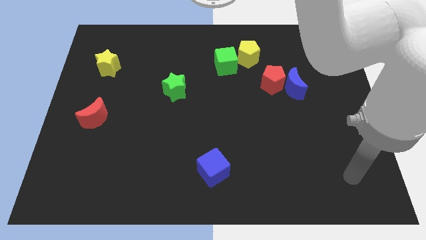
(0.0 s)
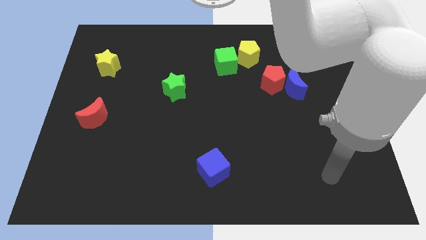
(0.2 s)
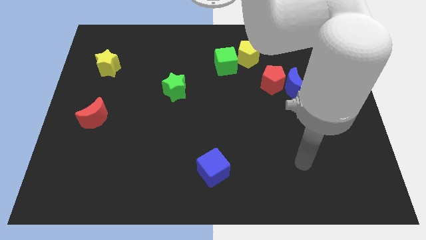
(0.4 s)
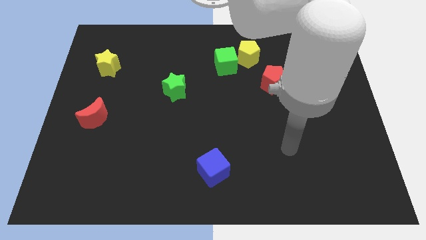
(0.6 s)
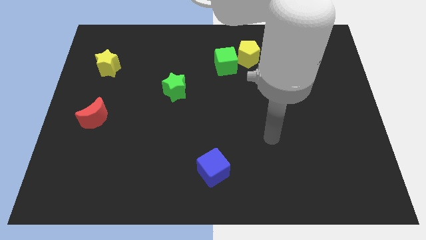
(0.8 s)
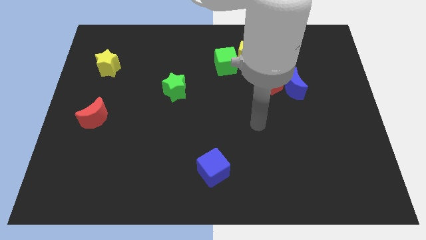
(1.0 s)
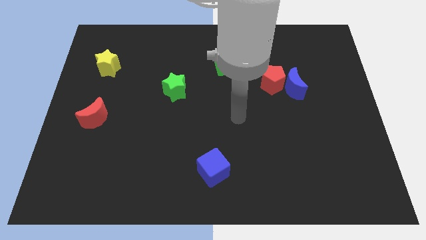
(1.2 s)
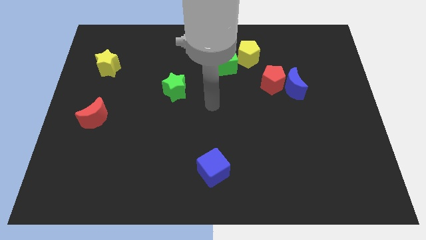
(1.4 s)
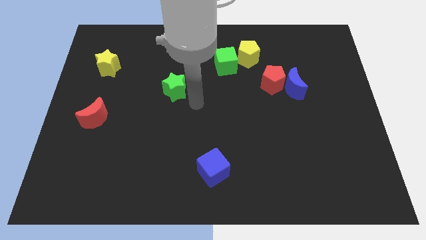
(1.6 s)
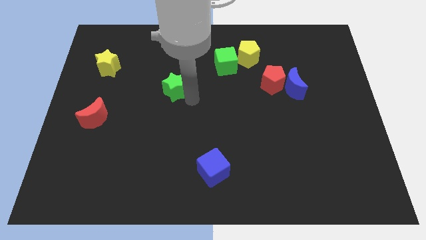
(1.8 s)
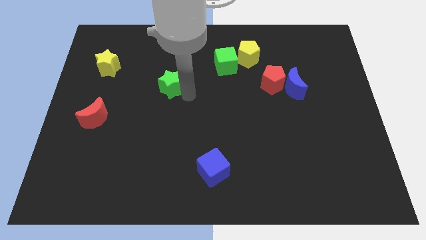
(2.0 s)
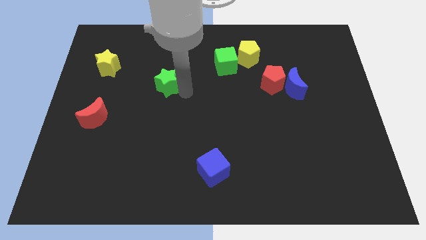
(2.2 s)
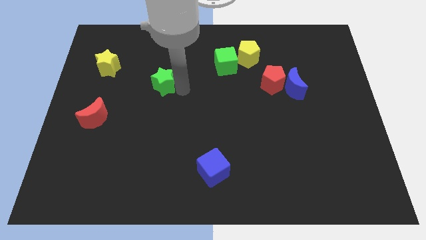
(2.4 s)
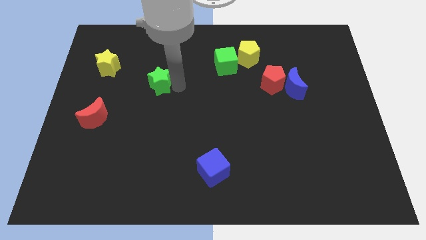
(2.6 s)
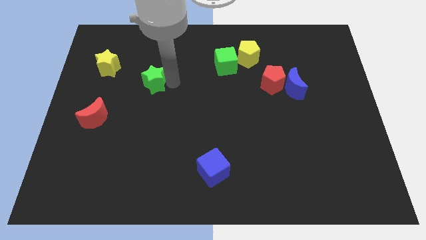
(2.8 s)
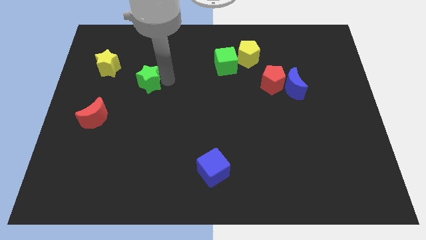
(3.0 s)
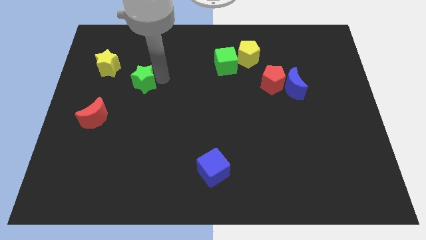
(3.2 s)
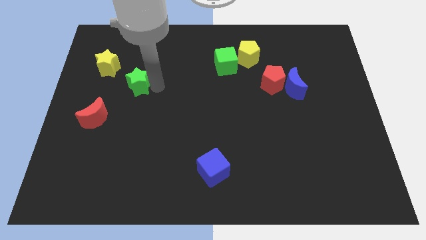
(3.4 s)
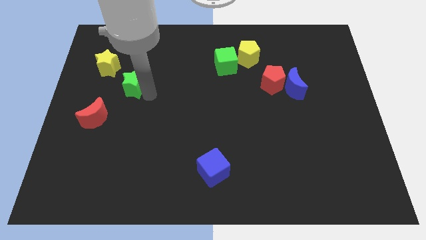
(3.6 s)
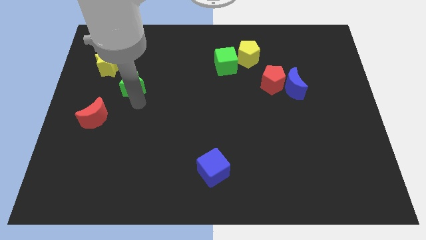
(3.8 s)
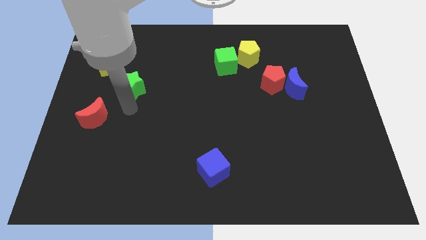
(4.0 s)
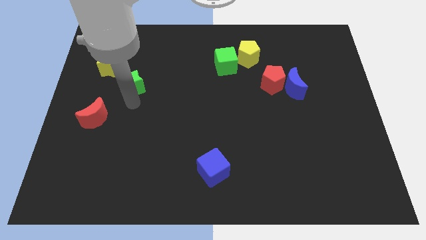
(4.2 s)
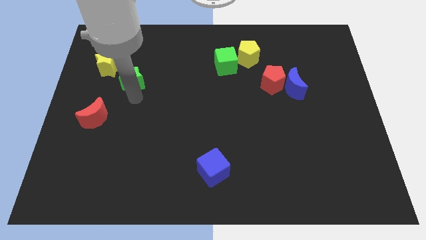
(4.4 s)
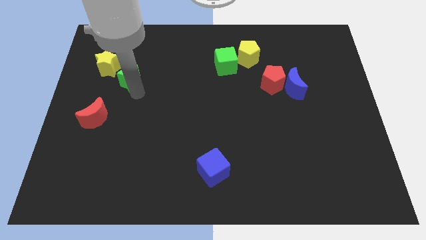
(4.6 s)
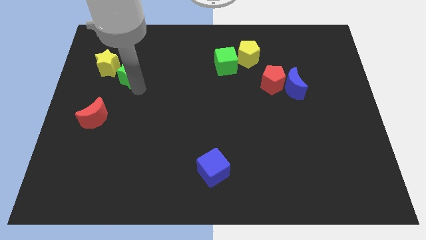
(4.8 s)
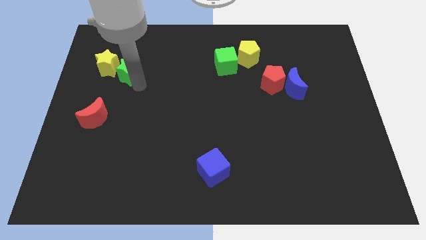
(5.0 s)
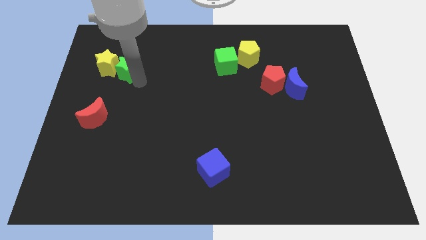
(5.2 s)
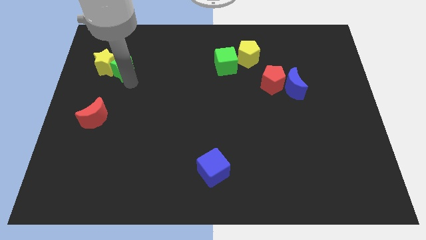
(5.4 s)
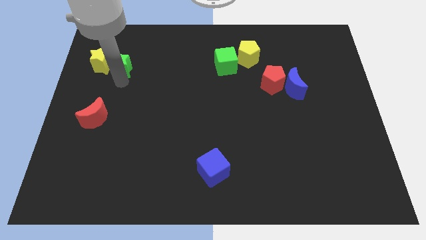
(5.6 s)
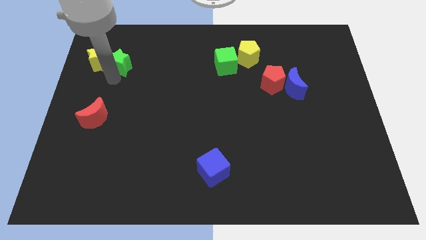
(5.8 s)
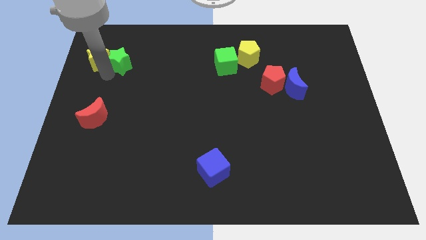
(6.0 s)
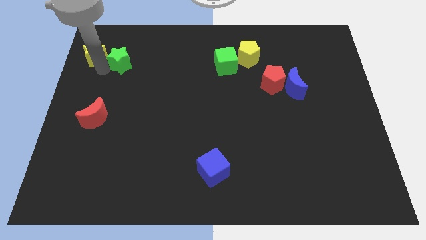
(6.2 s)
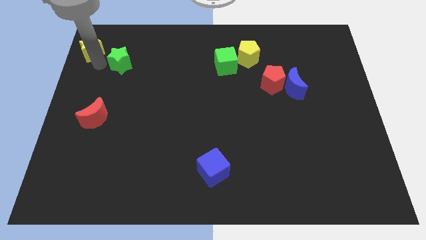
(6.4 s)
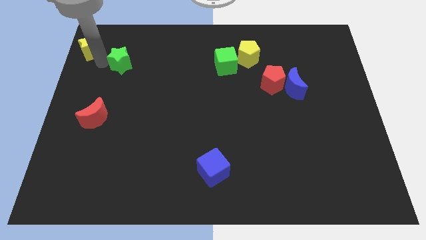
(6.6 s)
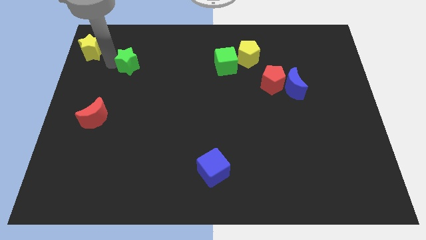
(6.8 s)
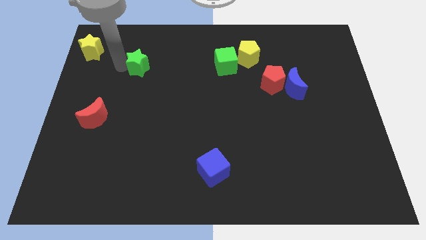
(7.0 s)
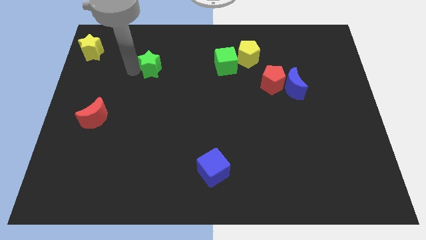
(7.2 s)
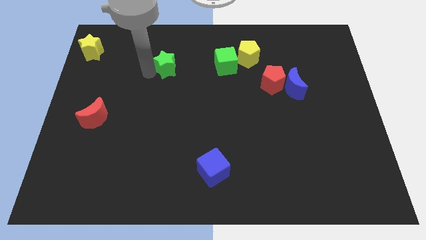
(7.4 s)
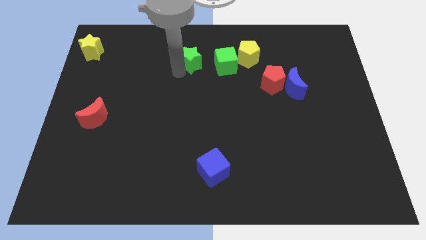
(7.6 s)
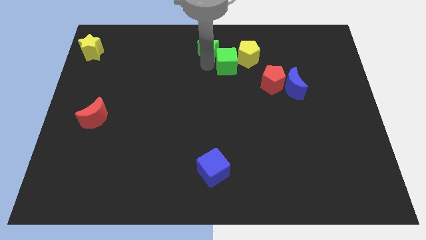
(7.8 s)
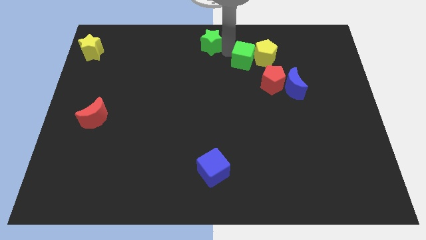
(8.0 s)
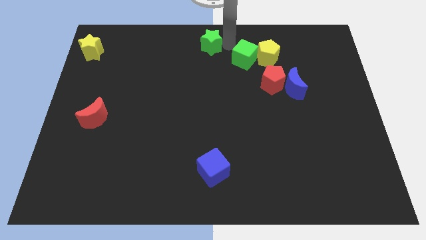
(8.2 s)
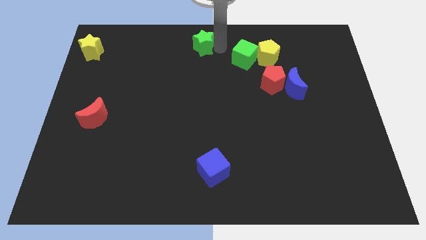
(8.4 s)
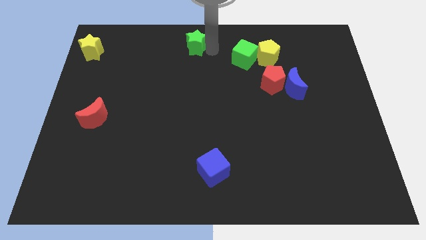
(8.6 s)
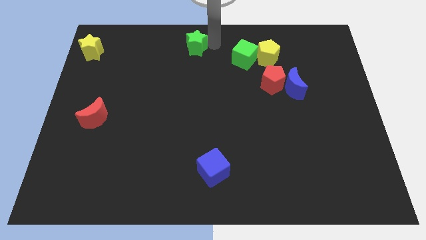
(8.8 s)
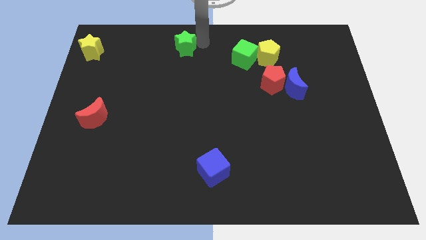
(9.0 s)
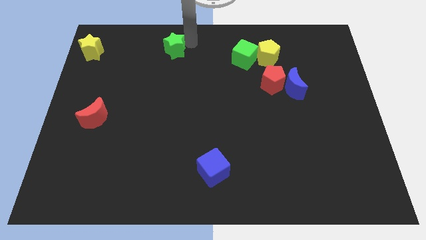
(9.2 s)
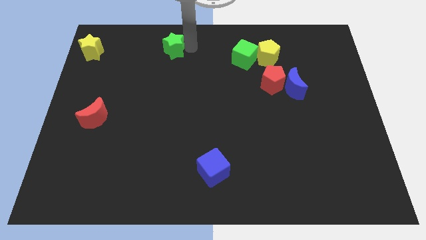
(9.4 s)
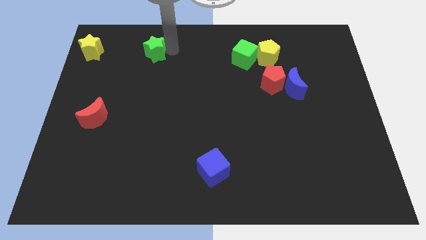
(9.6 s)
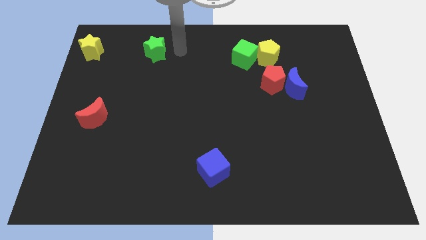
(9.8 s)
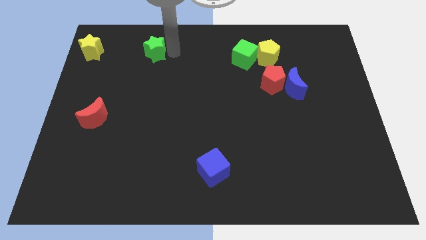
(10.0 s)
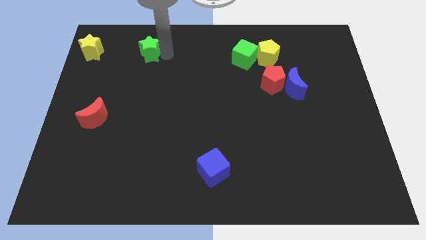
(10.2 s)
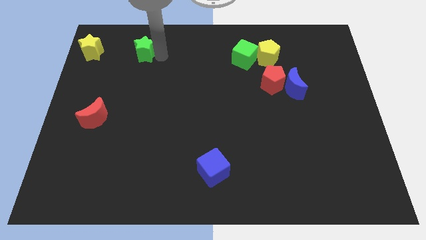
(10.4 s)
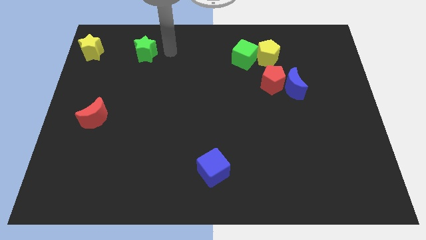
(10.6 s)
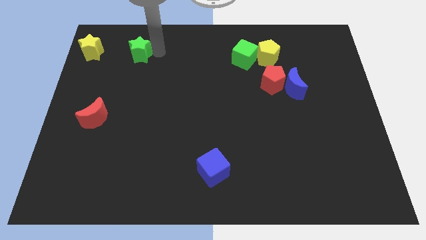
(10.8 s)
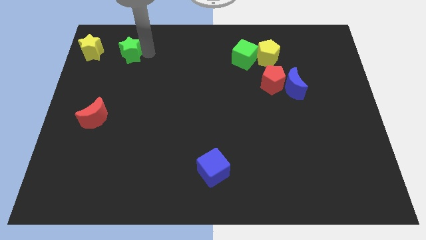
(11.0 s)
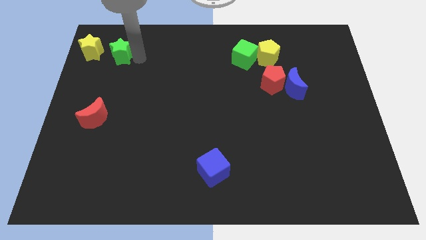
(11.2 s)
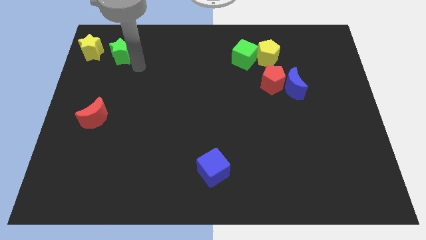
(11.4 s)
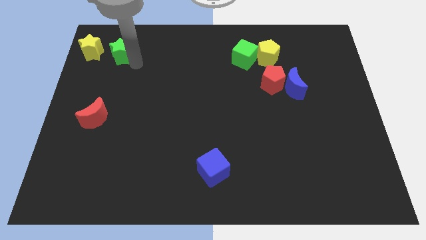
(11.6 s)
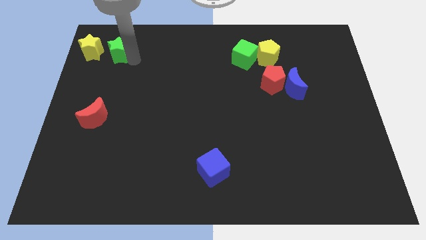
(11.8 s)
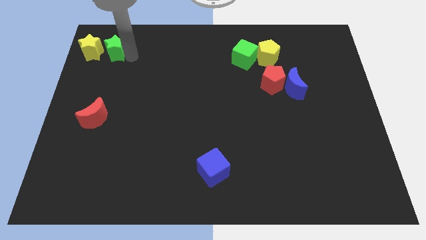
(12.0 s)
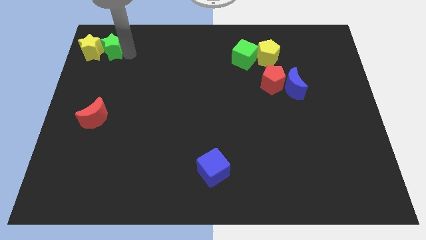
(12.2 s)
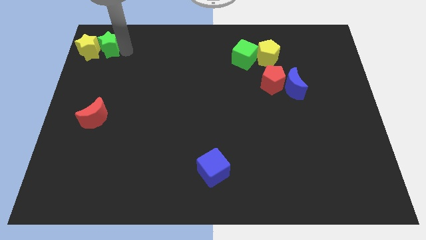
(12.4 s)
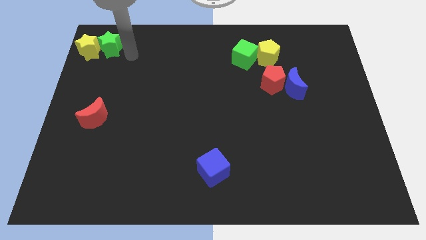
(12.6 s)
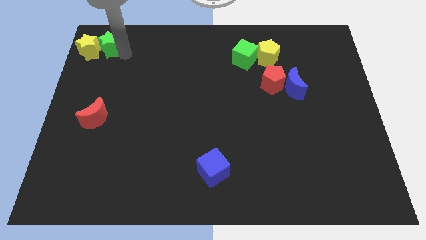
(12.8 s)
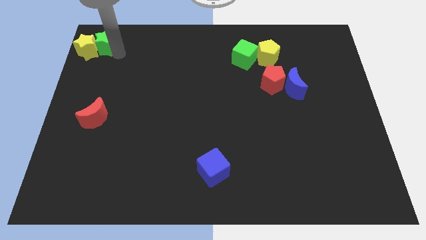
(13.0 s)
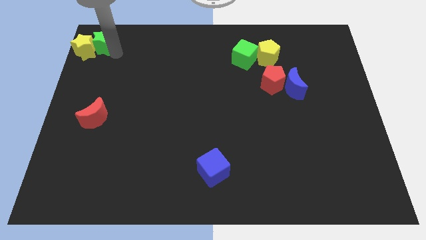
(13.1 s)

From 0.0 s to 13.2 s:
push the green star to the upper left corner

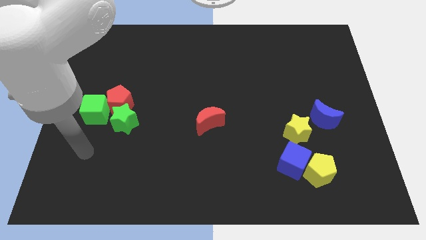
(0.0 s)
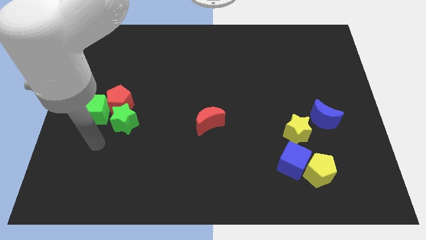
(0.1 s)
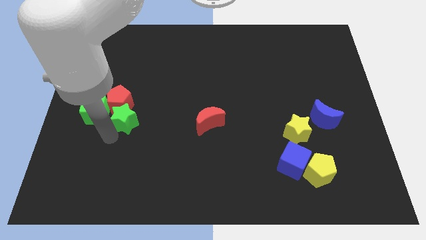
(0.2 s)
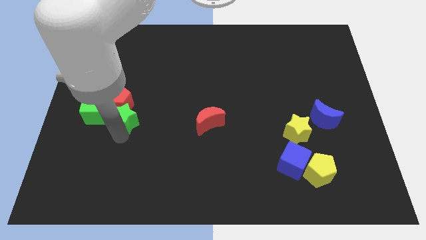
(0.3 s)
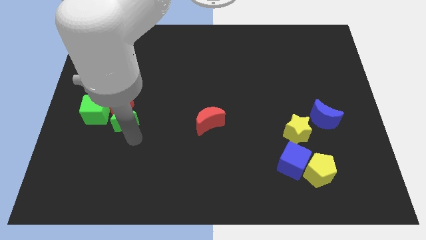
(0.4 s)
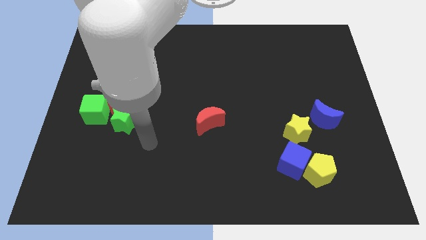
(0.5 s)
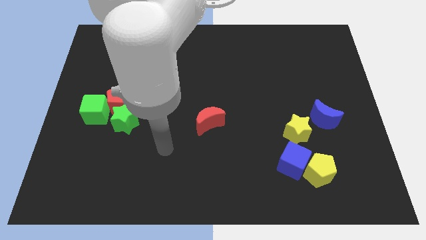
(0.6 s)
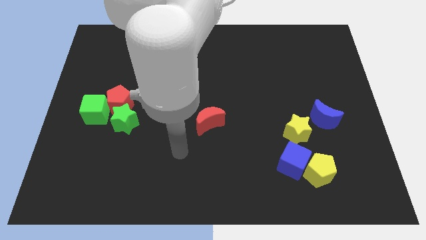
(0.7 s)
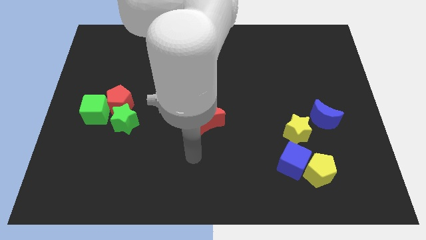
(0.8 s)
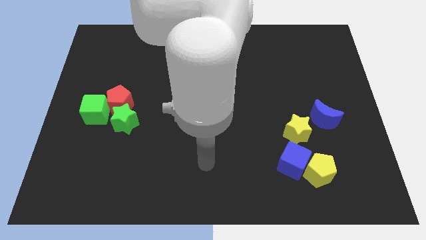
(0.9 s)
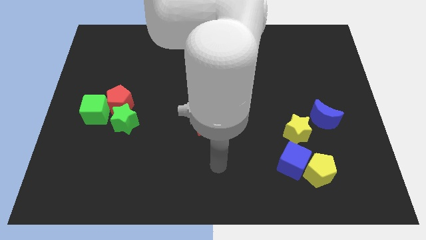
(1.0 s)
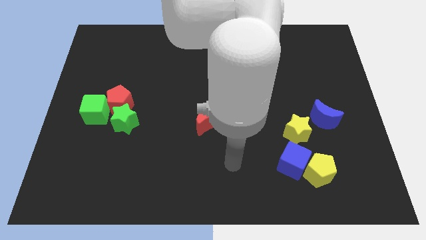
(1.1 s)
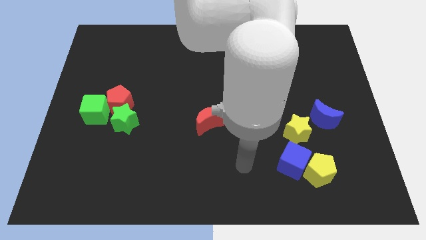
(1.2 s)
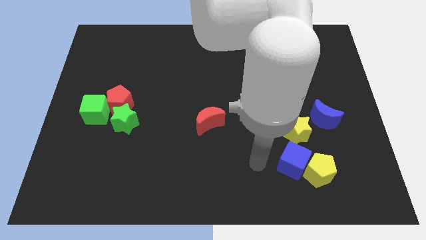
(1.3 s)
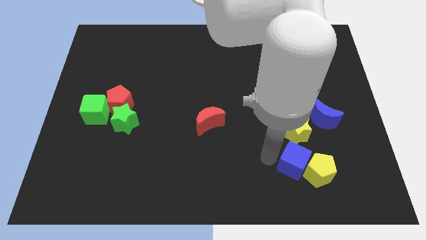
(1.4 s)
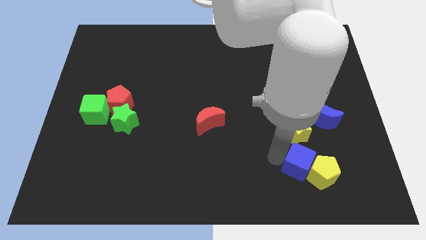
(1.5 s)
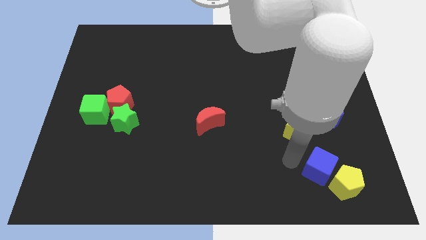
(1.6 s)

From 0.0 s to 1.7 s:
move the yellow pentagon to the bottom right
